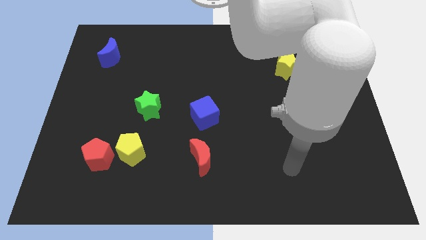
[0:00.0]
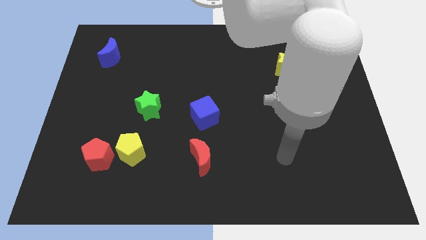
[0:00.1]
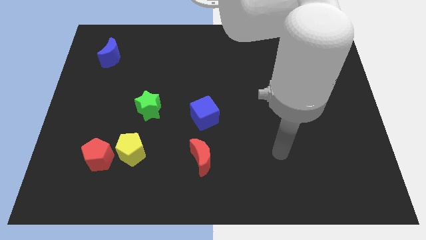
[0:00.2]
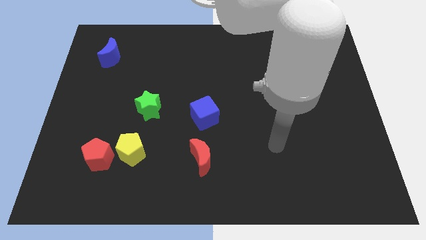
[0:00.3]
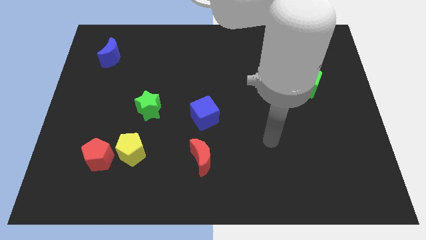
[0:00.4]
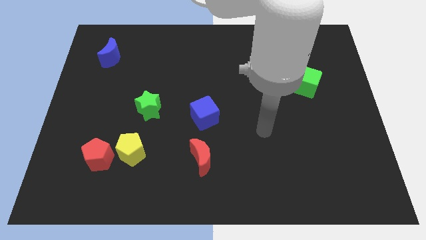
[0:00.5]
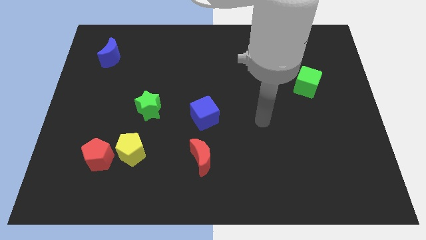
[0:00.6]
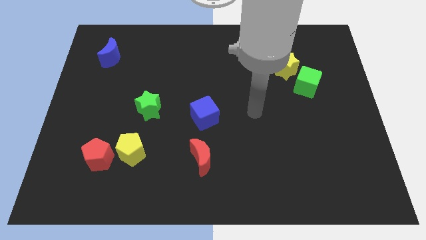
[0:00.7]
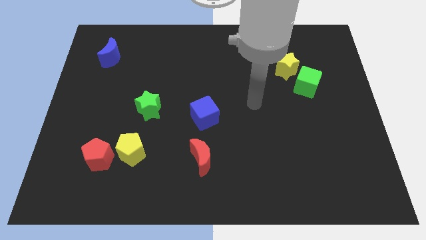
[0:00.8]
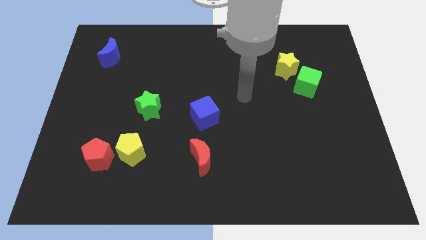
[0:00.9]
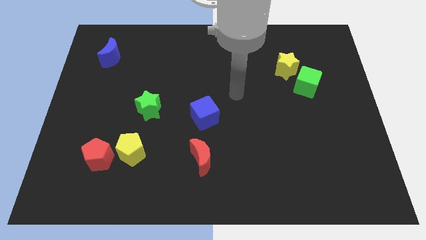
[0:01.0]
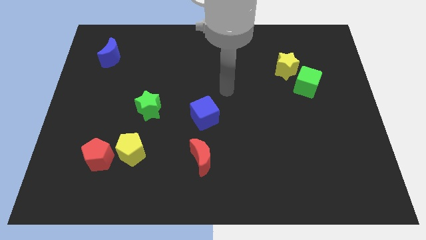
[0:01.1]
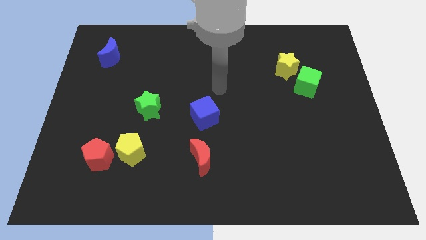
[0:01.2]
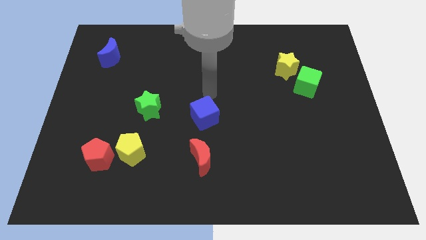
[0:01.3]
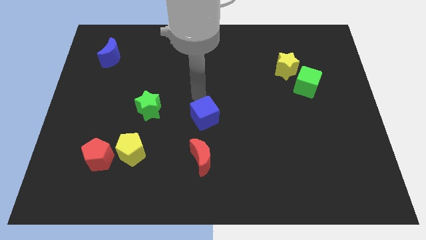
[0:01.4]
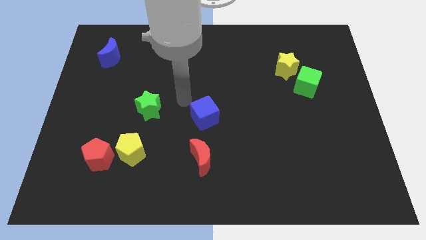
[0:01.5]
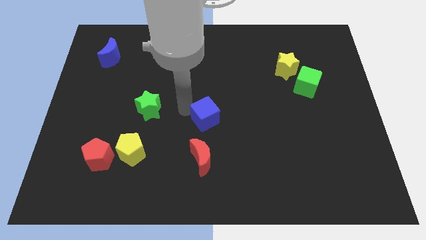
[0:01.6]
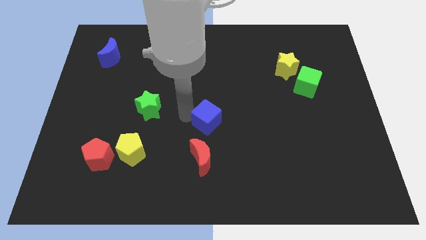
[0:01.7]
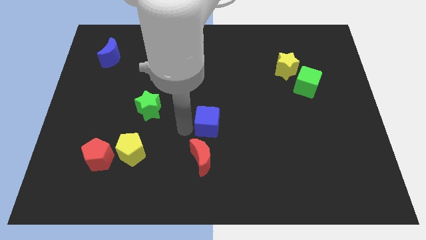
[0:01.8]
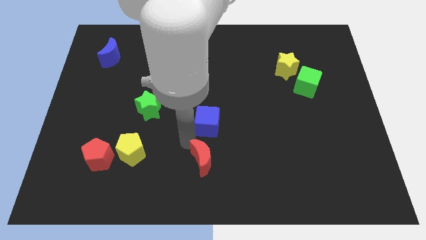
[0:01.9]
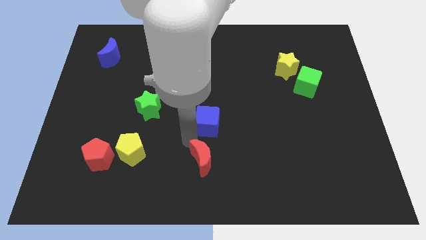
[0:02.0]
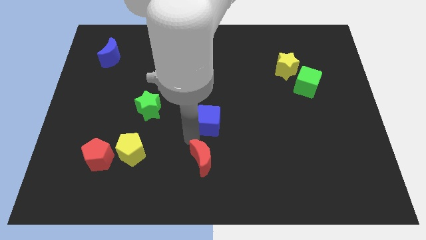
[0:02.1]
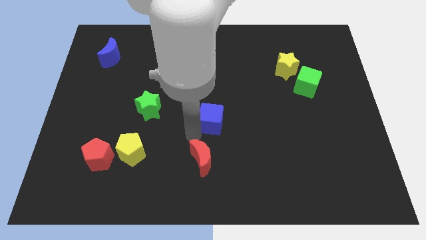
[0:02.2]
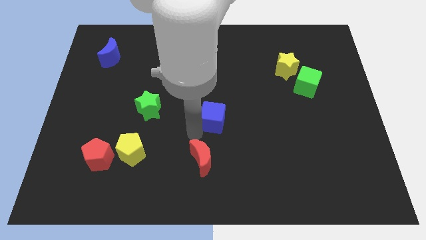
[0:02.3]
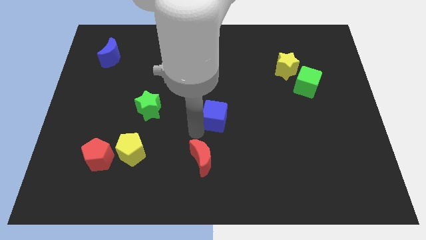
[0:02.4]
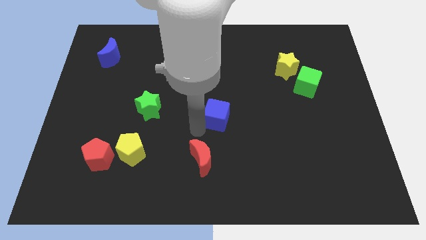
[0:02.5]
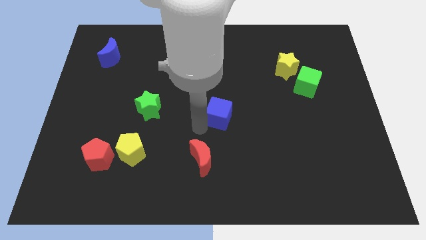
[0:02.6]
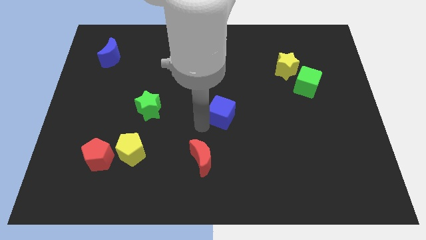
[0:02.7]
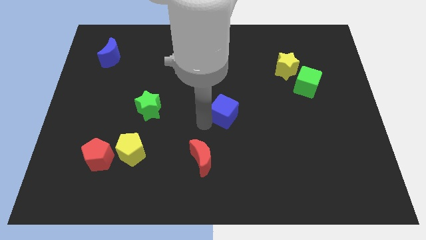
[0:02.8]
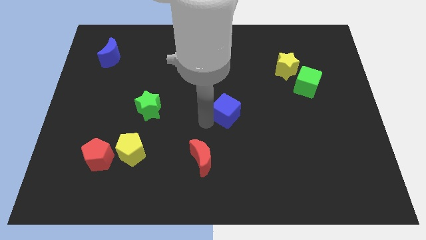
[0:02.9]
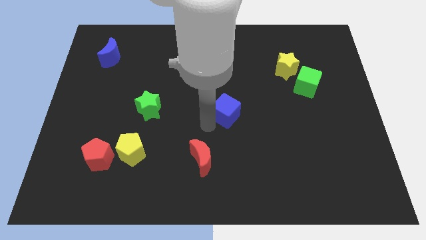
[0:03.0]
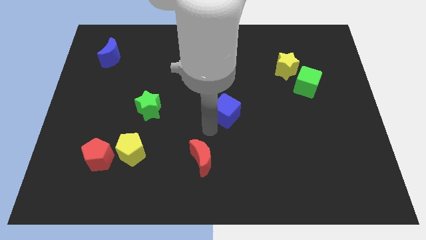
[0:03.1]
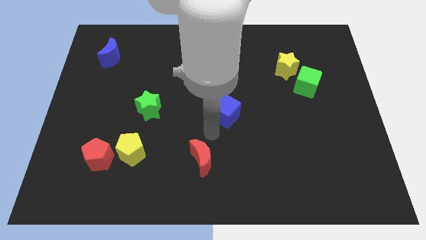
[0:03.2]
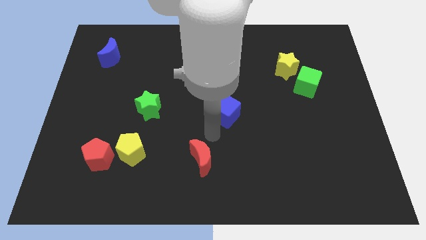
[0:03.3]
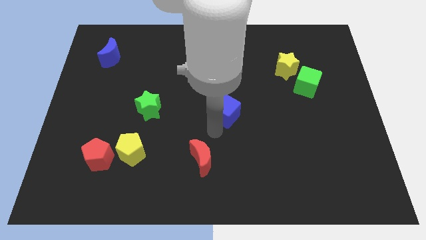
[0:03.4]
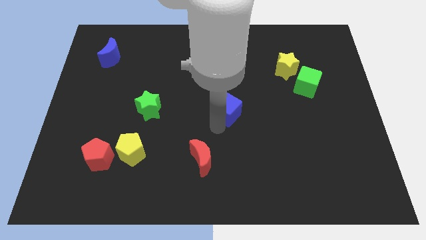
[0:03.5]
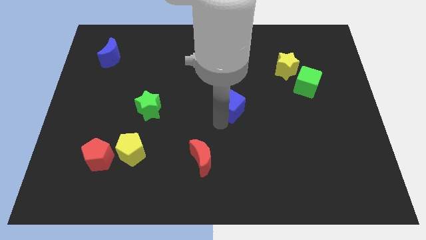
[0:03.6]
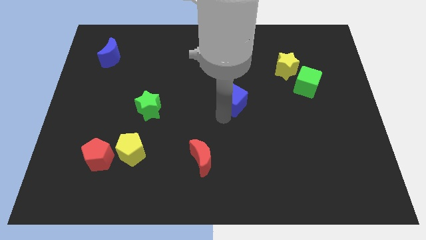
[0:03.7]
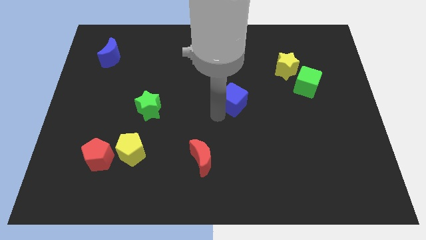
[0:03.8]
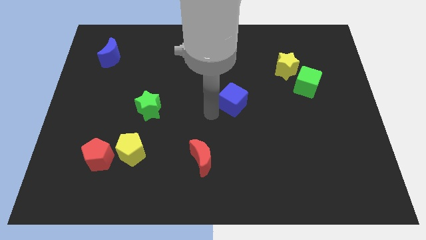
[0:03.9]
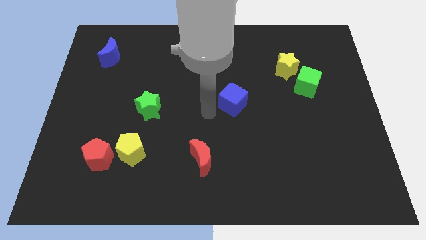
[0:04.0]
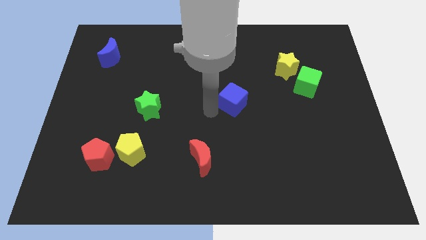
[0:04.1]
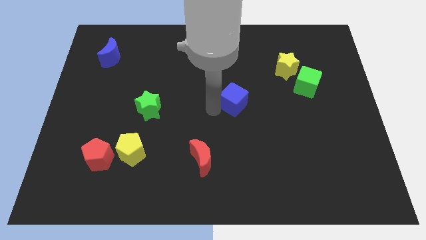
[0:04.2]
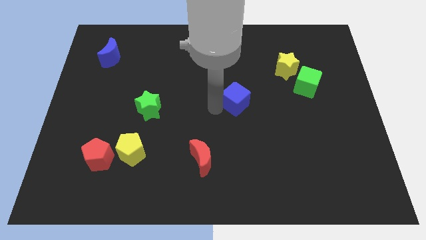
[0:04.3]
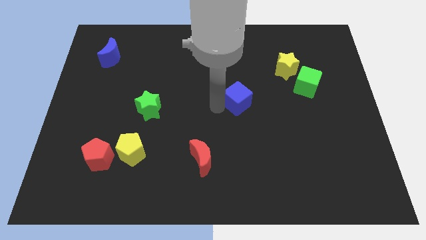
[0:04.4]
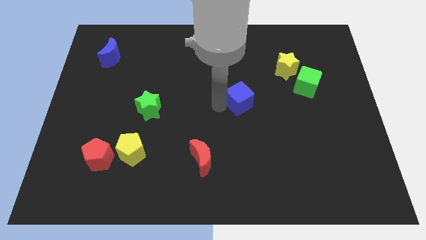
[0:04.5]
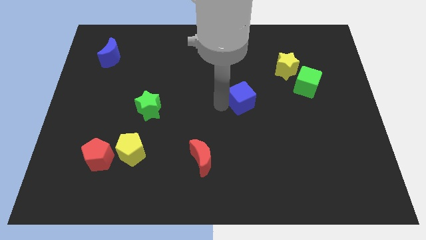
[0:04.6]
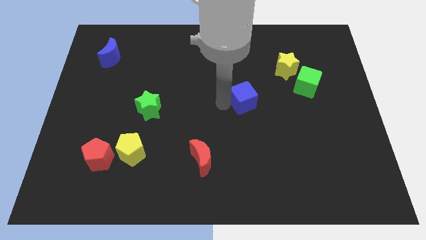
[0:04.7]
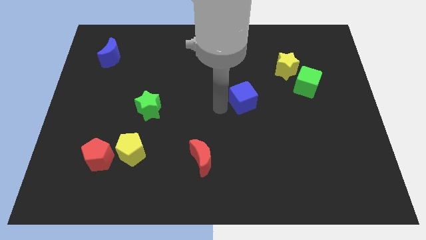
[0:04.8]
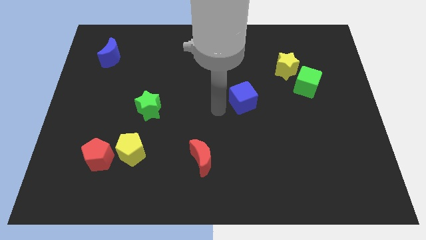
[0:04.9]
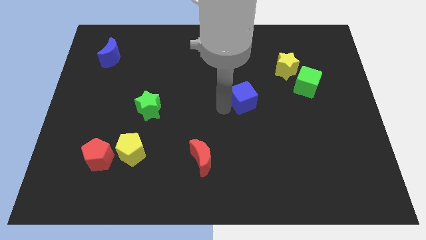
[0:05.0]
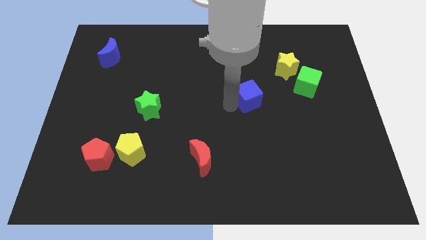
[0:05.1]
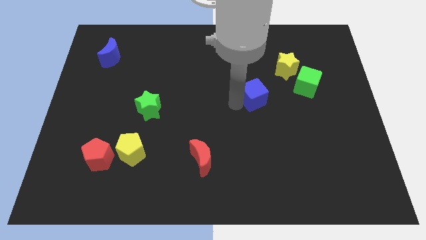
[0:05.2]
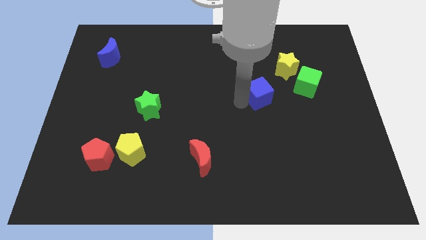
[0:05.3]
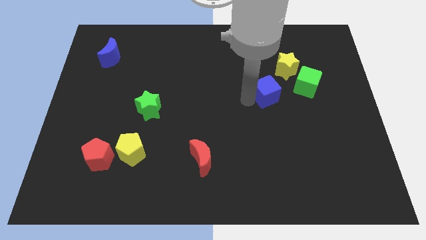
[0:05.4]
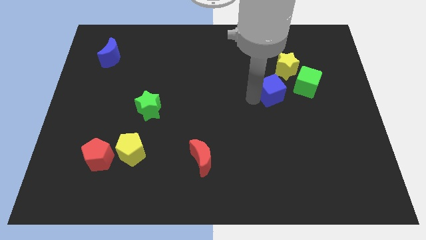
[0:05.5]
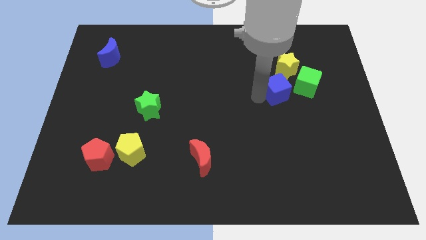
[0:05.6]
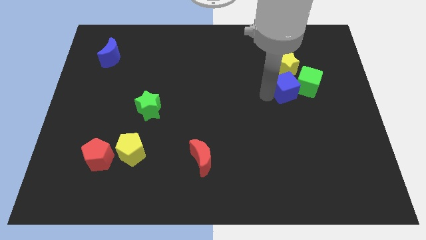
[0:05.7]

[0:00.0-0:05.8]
put the blue cube close to the green cube

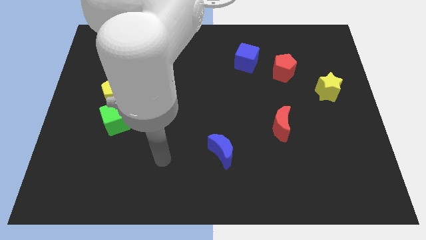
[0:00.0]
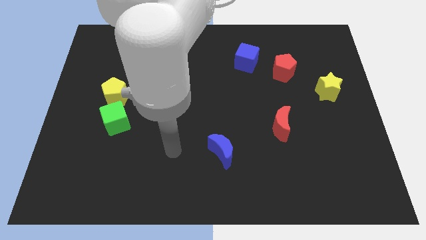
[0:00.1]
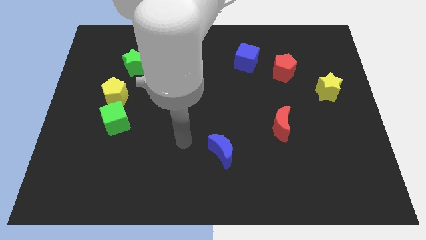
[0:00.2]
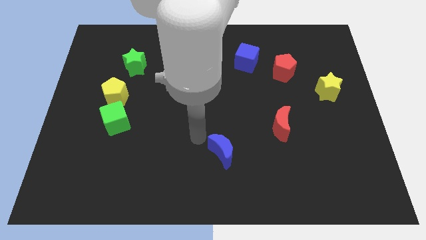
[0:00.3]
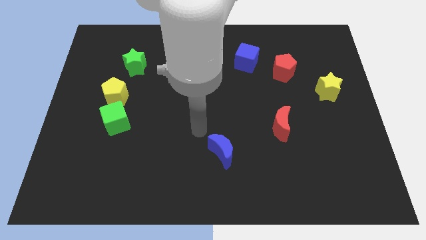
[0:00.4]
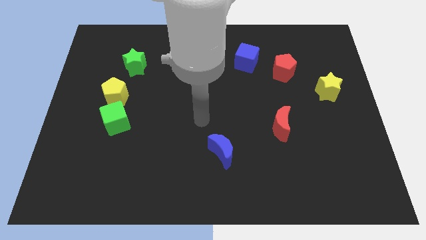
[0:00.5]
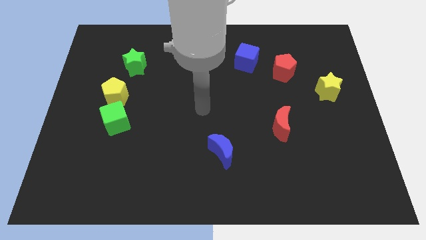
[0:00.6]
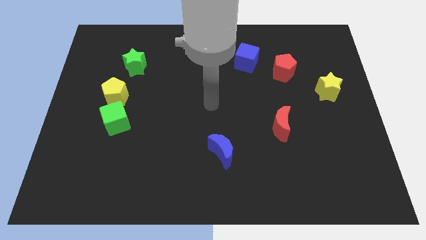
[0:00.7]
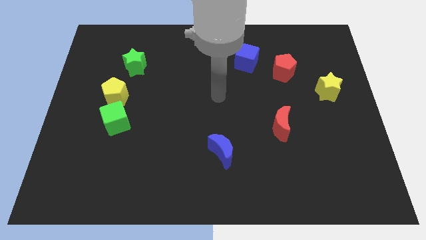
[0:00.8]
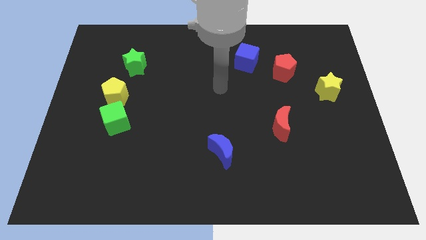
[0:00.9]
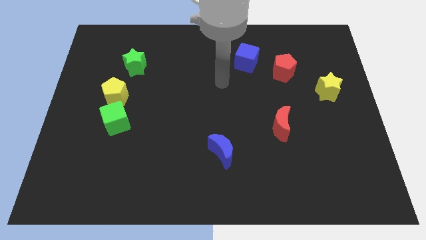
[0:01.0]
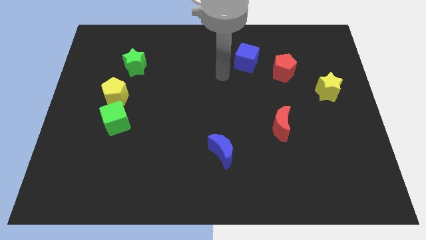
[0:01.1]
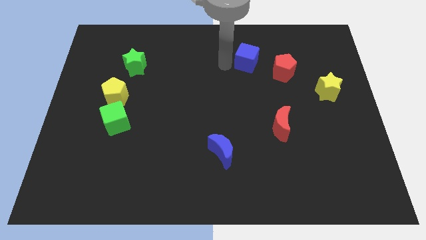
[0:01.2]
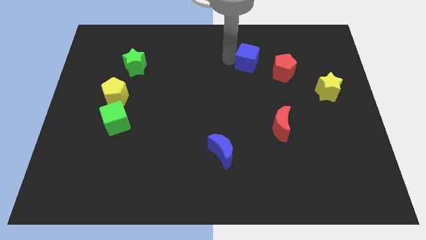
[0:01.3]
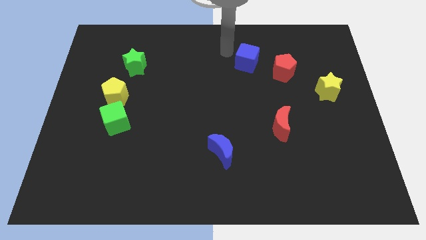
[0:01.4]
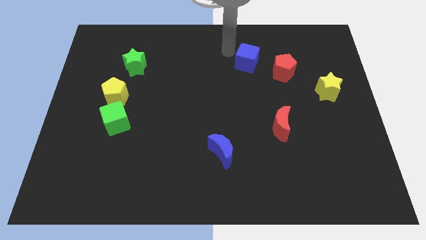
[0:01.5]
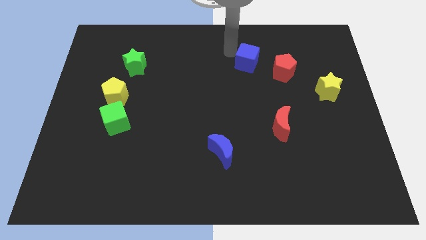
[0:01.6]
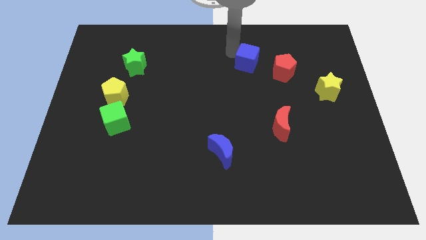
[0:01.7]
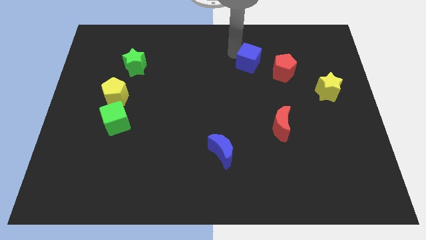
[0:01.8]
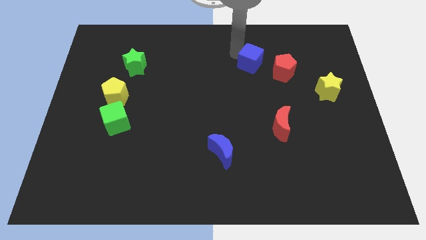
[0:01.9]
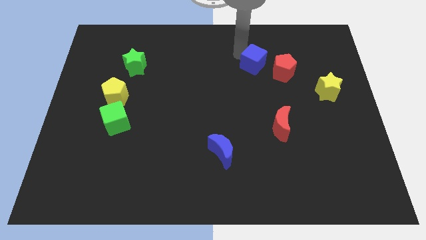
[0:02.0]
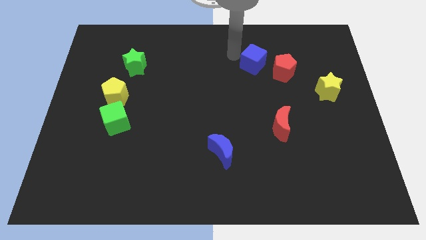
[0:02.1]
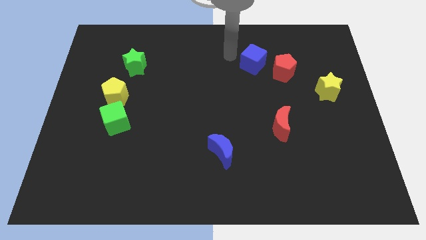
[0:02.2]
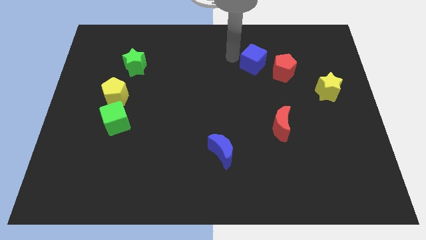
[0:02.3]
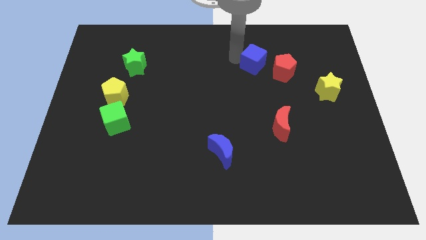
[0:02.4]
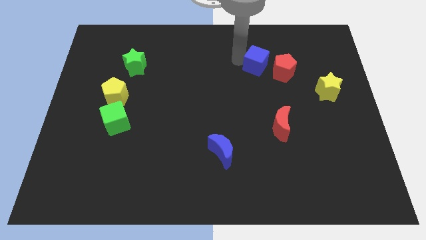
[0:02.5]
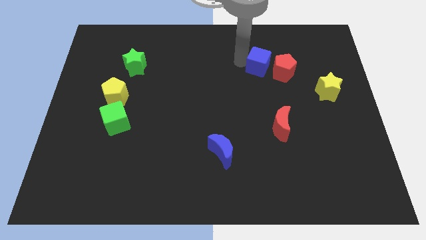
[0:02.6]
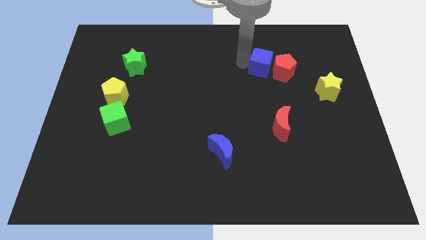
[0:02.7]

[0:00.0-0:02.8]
push the blue cube close to the red pentagon
